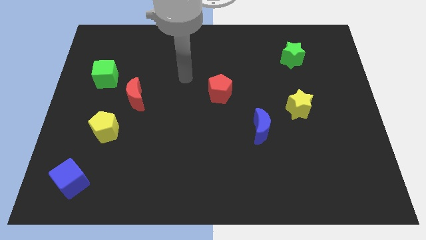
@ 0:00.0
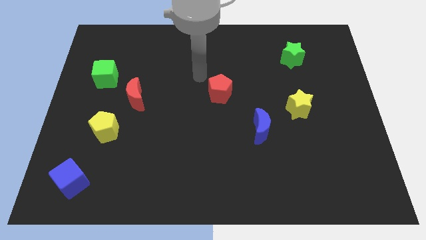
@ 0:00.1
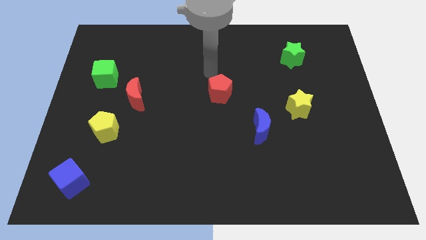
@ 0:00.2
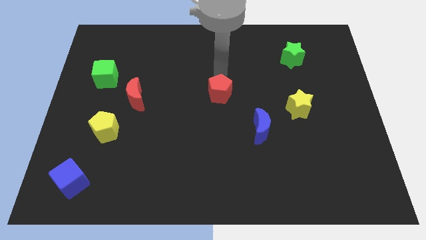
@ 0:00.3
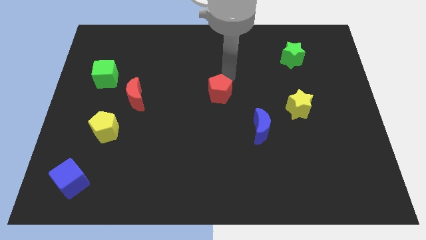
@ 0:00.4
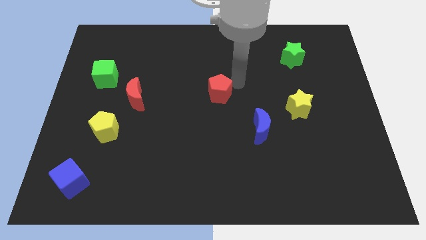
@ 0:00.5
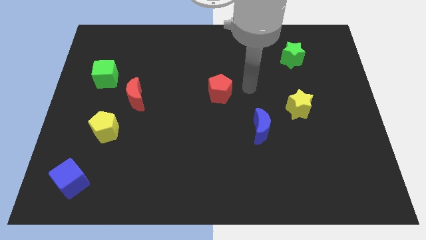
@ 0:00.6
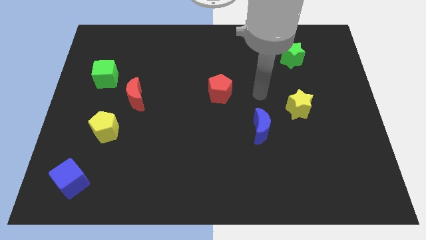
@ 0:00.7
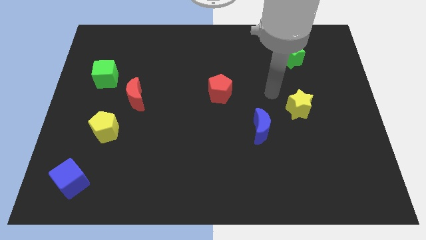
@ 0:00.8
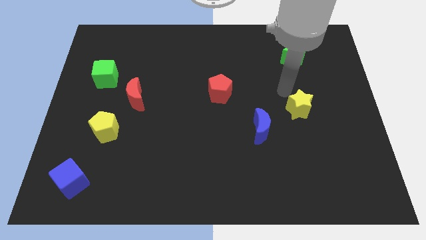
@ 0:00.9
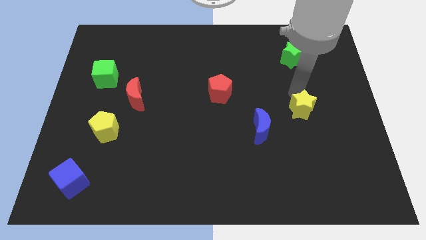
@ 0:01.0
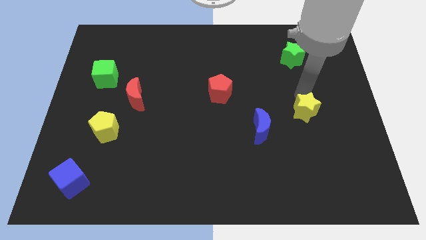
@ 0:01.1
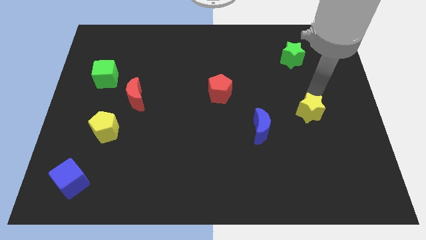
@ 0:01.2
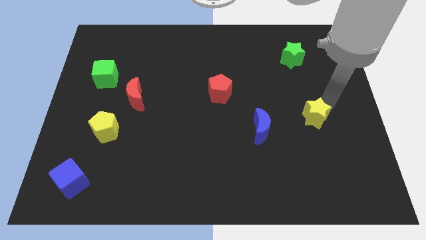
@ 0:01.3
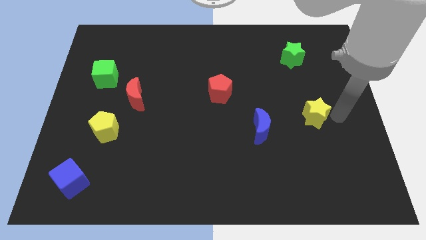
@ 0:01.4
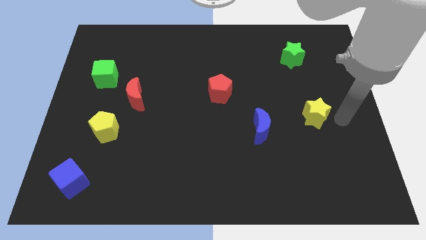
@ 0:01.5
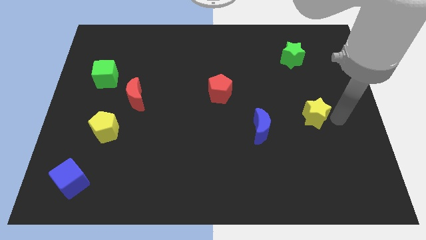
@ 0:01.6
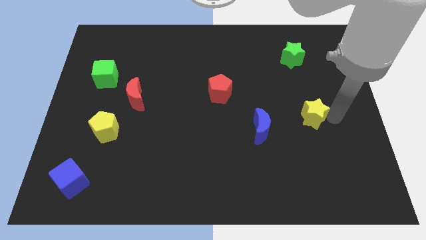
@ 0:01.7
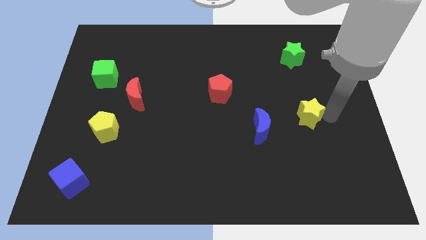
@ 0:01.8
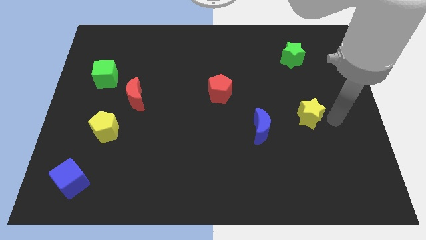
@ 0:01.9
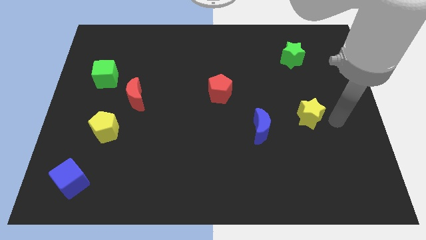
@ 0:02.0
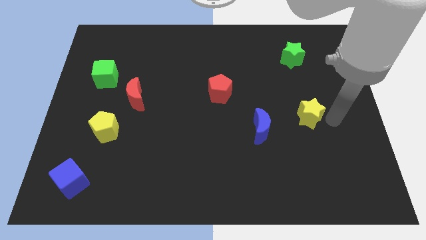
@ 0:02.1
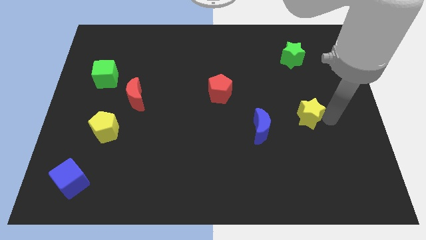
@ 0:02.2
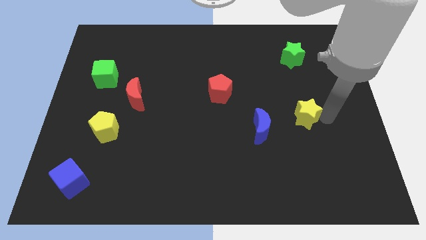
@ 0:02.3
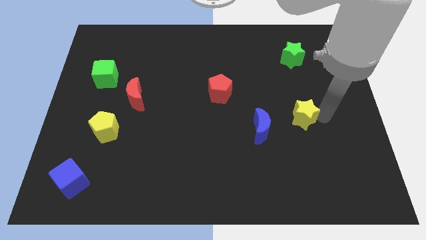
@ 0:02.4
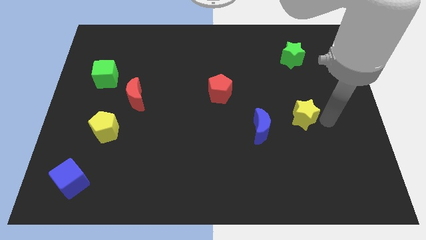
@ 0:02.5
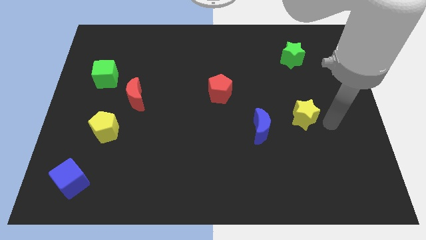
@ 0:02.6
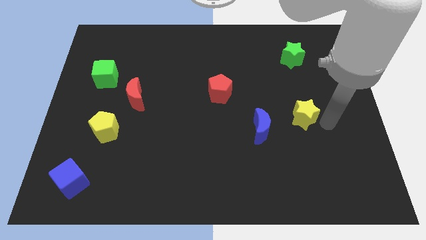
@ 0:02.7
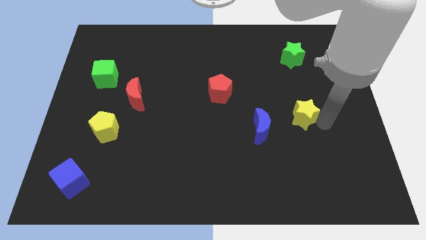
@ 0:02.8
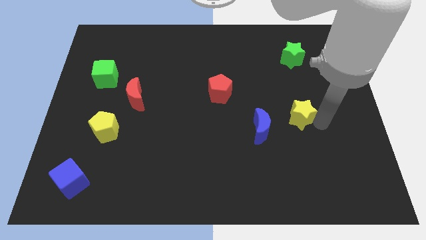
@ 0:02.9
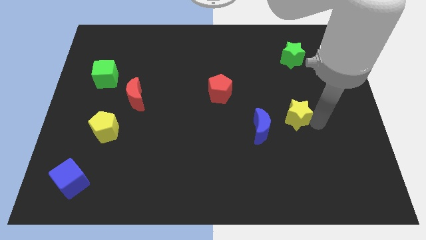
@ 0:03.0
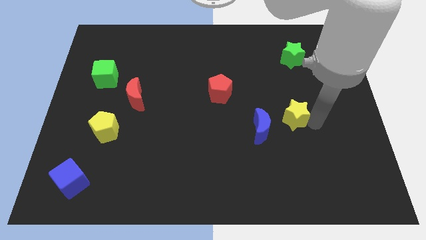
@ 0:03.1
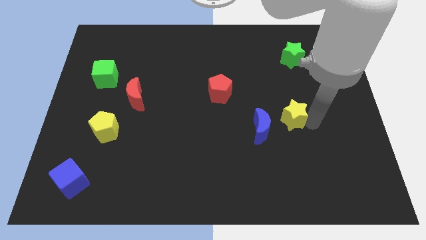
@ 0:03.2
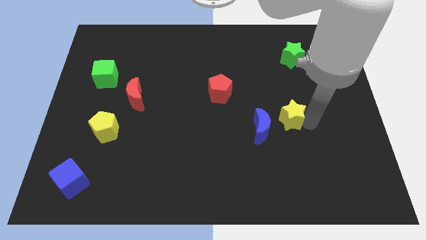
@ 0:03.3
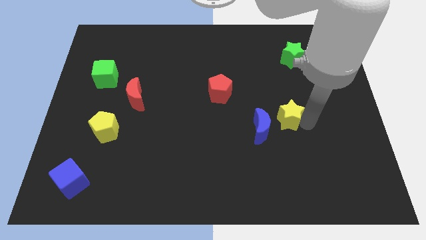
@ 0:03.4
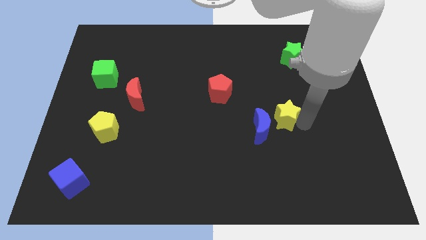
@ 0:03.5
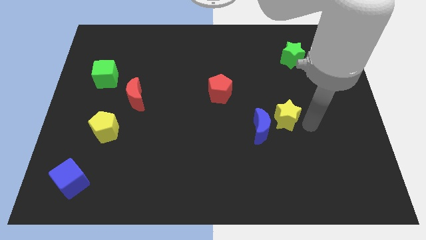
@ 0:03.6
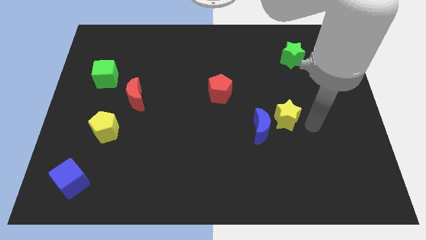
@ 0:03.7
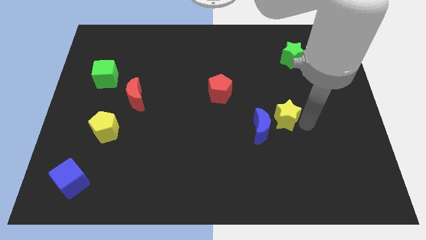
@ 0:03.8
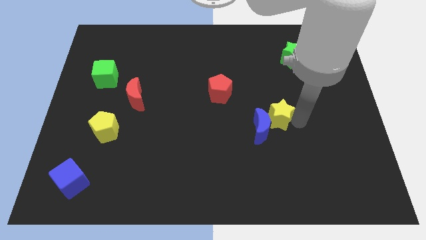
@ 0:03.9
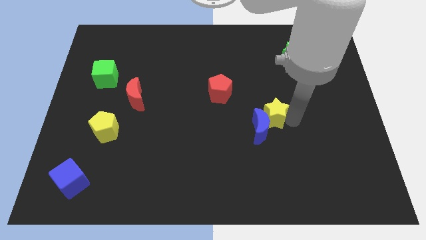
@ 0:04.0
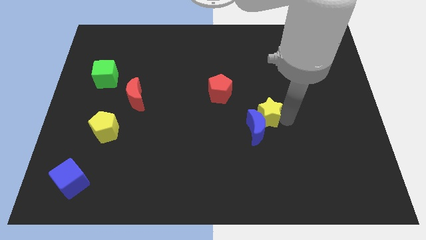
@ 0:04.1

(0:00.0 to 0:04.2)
push the yellow star somewhat to the left

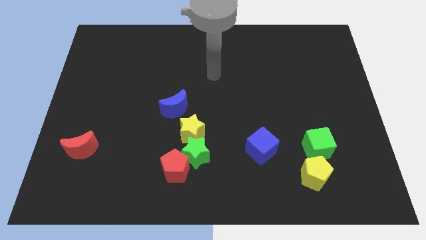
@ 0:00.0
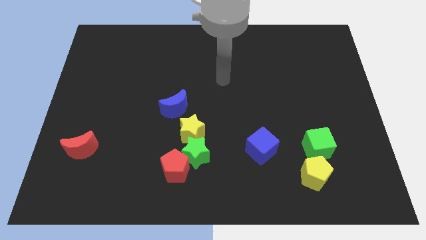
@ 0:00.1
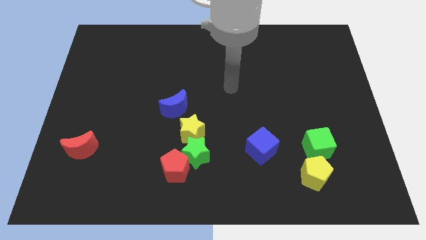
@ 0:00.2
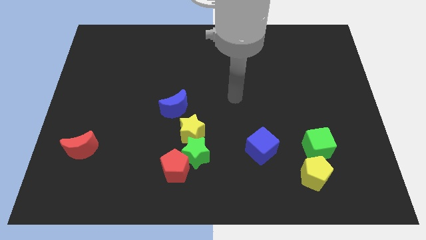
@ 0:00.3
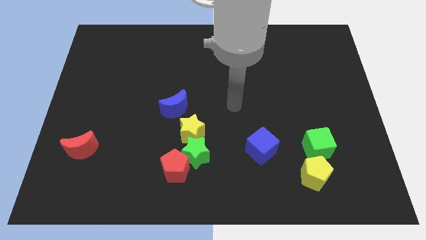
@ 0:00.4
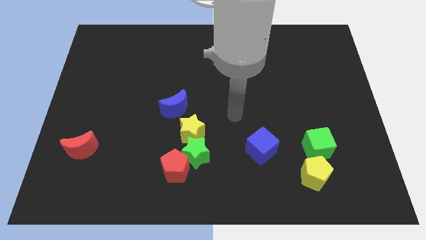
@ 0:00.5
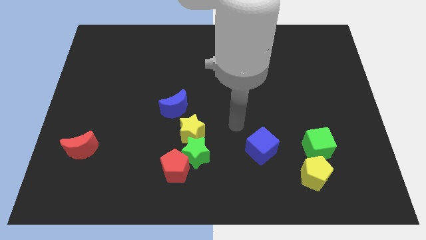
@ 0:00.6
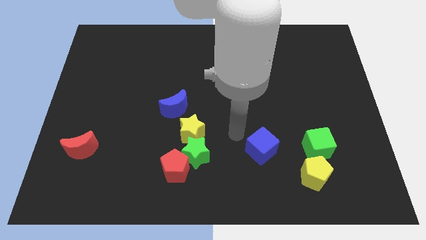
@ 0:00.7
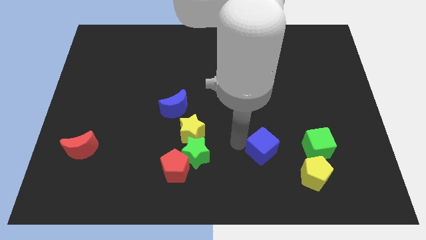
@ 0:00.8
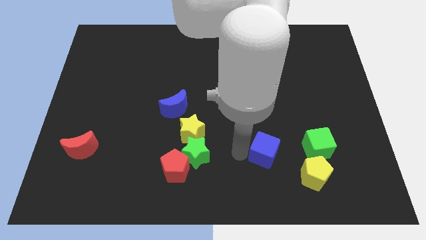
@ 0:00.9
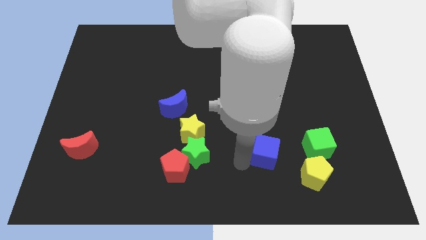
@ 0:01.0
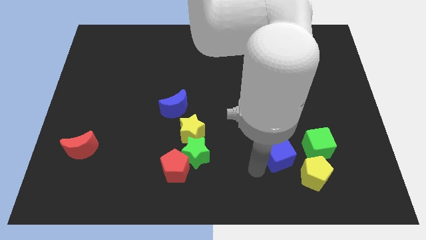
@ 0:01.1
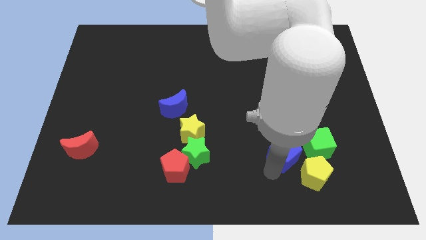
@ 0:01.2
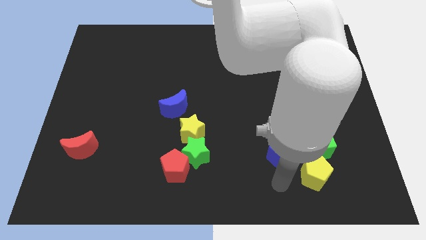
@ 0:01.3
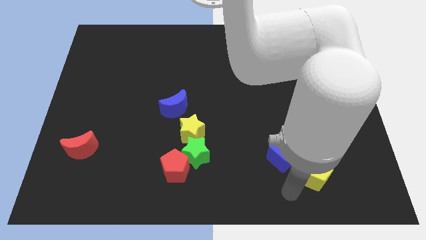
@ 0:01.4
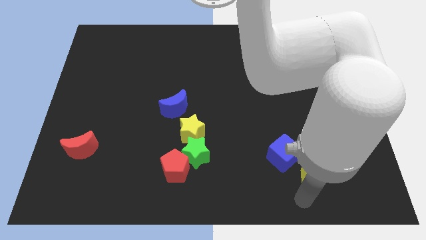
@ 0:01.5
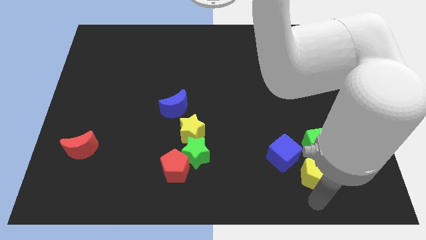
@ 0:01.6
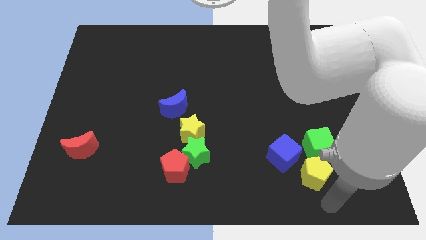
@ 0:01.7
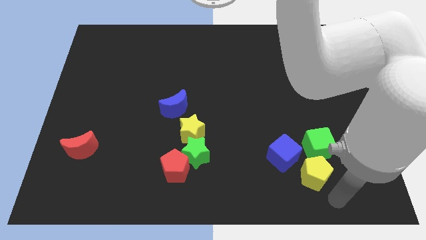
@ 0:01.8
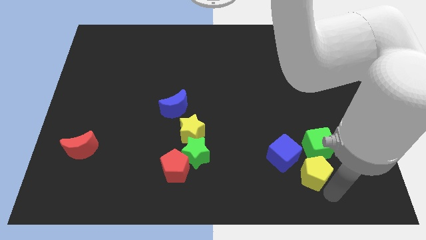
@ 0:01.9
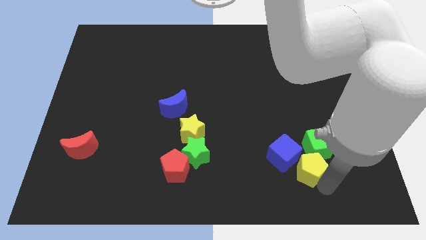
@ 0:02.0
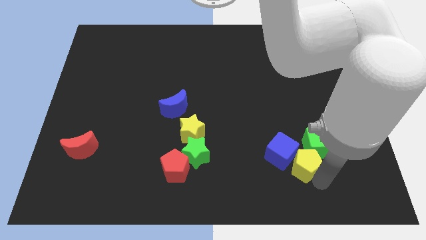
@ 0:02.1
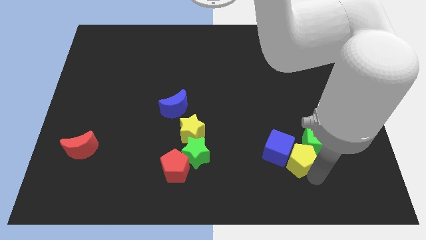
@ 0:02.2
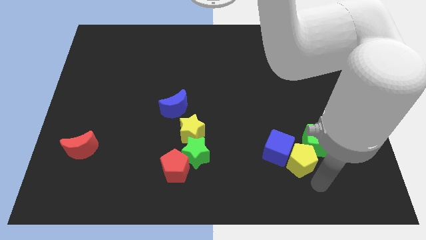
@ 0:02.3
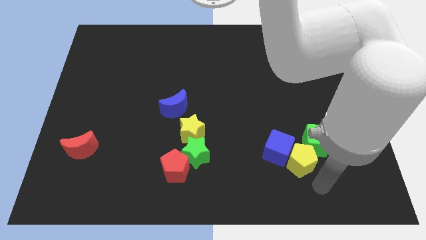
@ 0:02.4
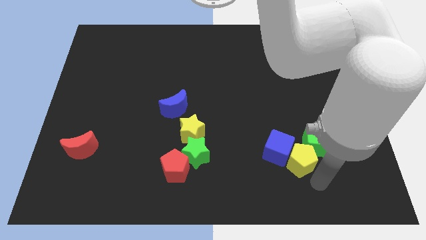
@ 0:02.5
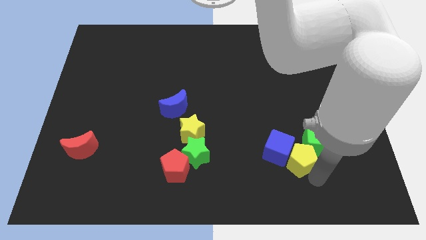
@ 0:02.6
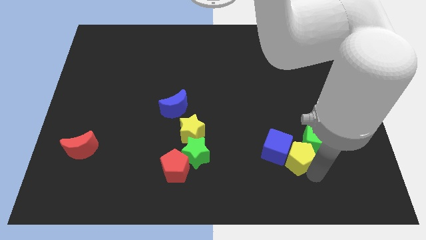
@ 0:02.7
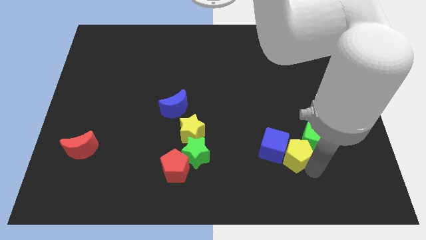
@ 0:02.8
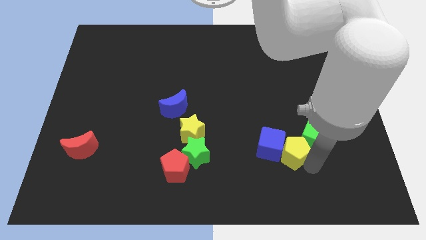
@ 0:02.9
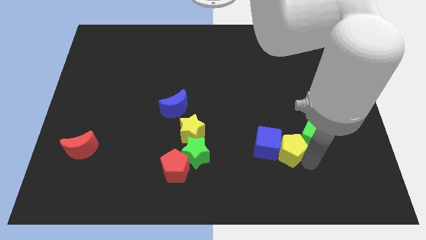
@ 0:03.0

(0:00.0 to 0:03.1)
move the yellow pentagon upwards and left diagonally somewhat

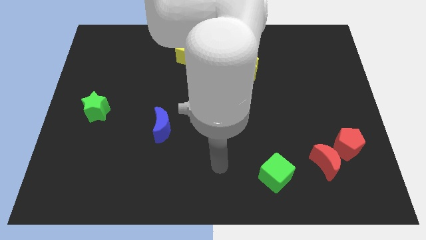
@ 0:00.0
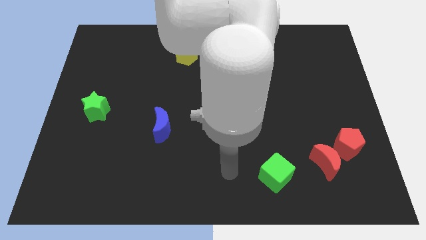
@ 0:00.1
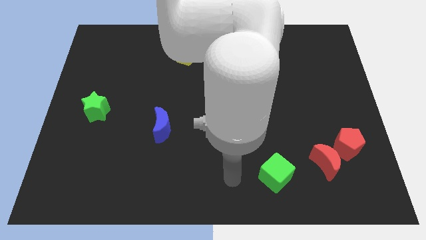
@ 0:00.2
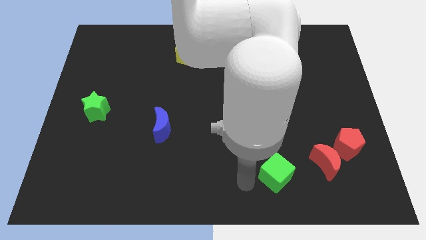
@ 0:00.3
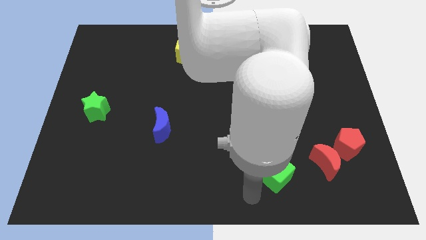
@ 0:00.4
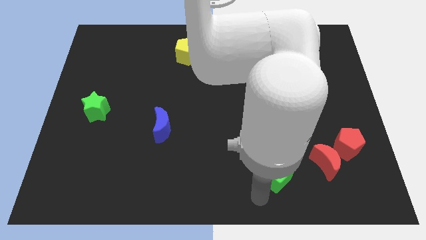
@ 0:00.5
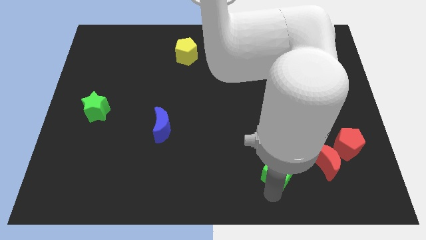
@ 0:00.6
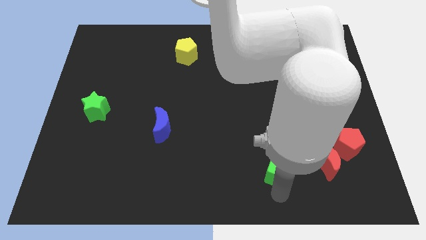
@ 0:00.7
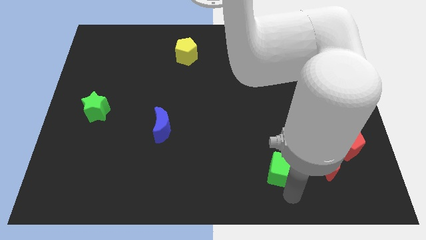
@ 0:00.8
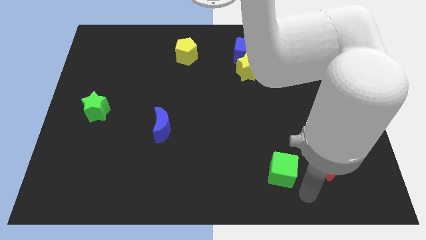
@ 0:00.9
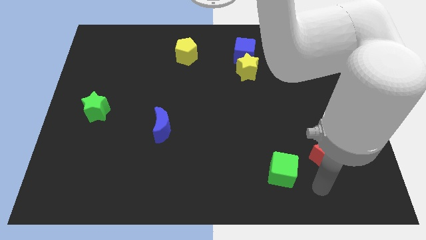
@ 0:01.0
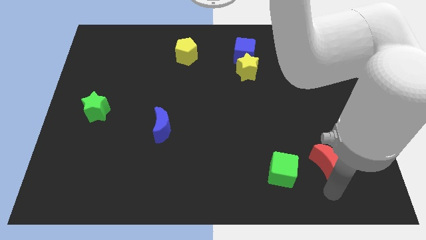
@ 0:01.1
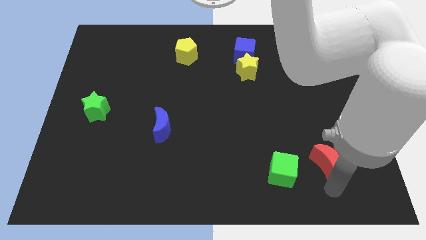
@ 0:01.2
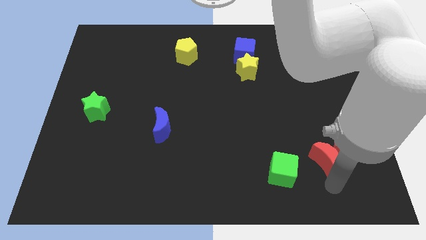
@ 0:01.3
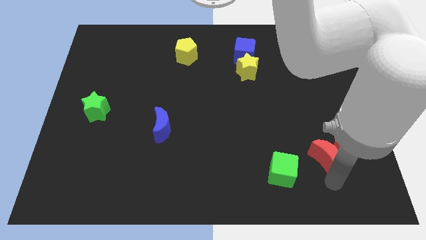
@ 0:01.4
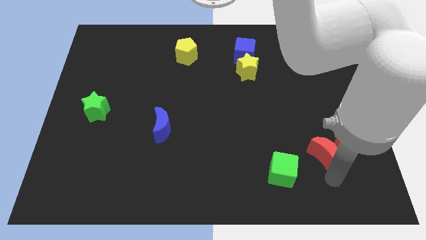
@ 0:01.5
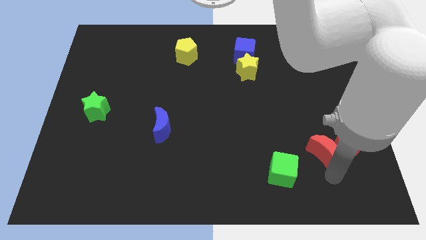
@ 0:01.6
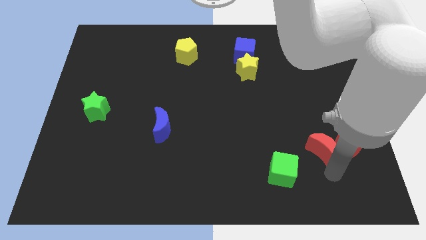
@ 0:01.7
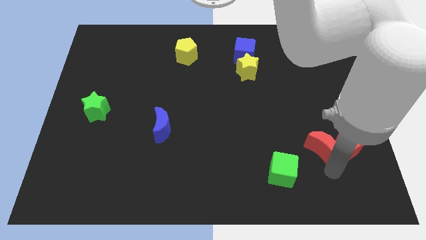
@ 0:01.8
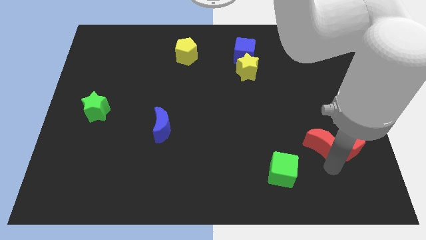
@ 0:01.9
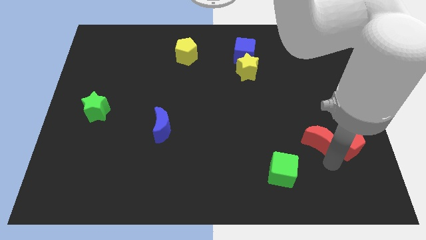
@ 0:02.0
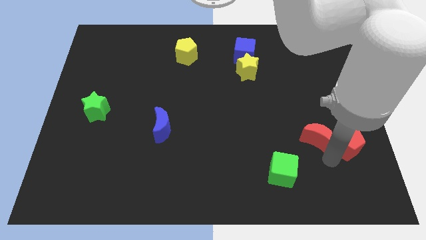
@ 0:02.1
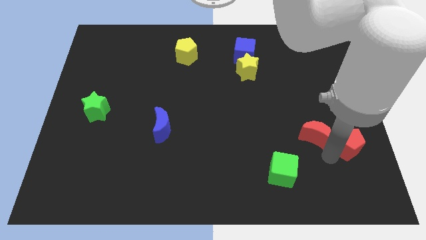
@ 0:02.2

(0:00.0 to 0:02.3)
slightly move the red moon up
